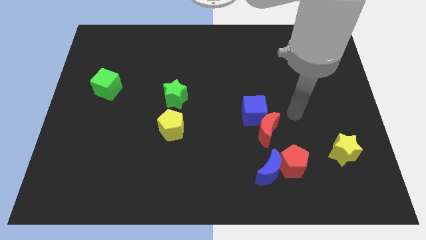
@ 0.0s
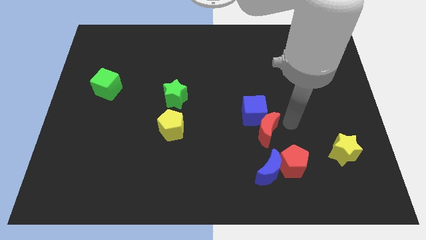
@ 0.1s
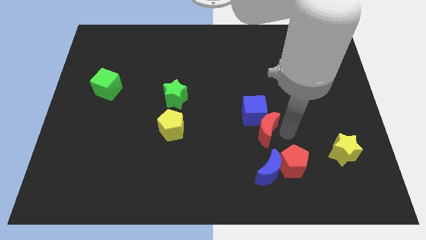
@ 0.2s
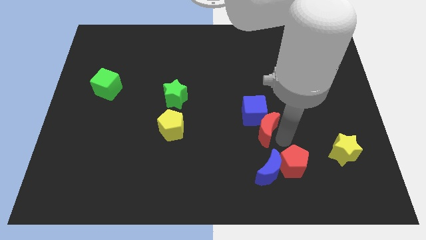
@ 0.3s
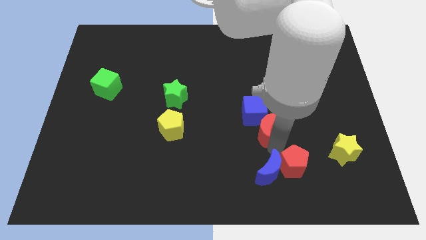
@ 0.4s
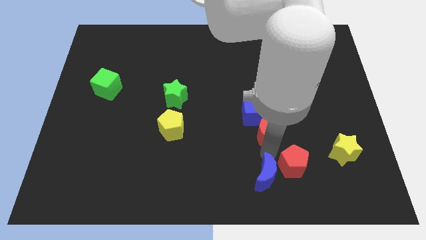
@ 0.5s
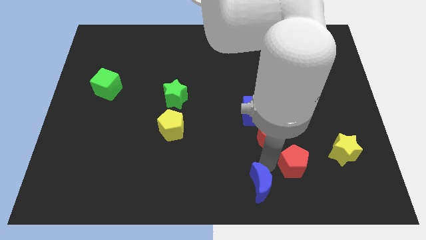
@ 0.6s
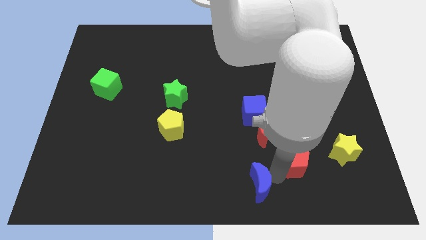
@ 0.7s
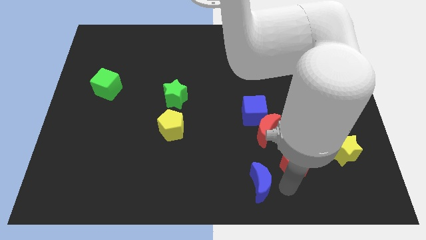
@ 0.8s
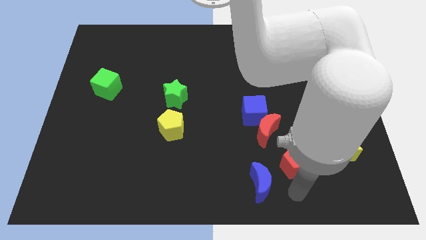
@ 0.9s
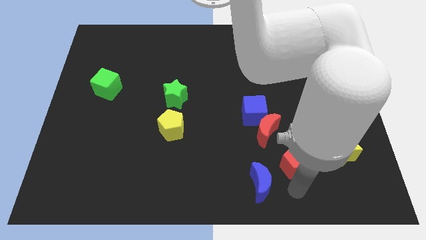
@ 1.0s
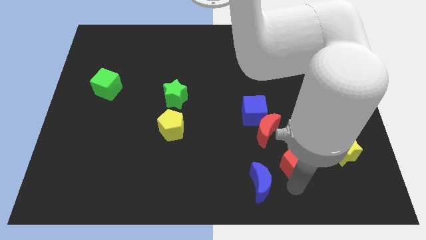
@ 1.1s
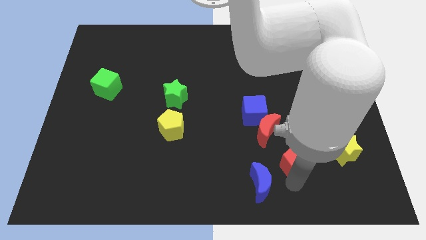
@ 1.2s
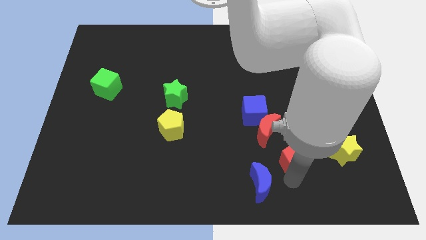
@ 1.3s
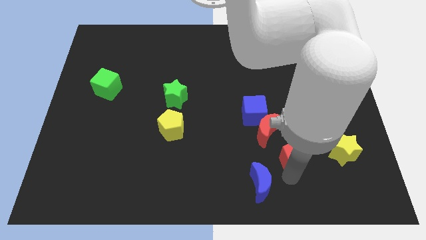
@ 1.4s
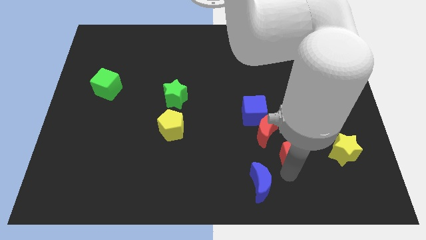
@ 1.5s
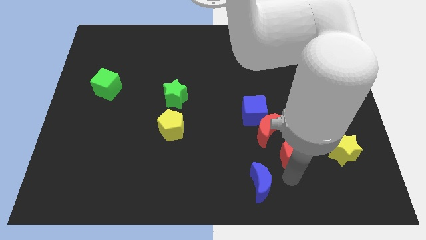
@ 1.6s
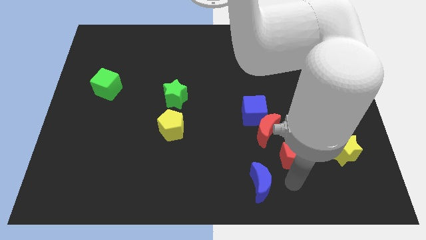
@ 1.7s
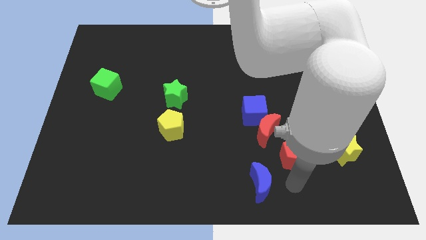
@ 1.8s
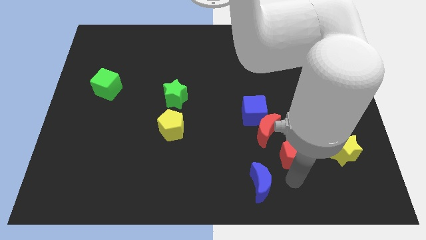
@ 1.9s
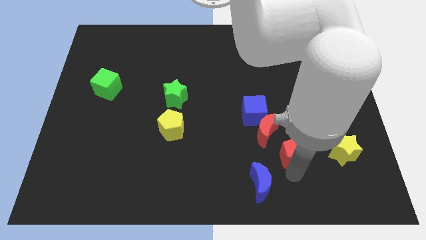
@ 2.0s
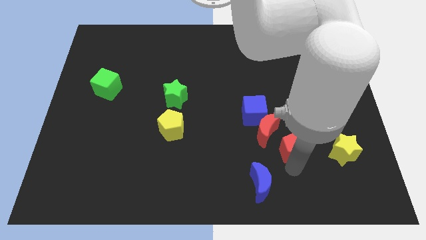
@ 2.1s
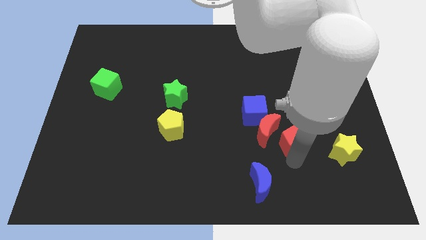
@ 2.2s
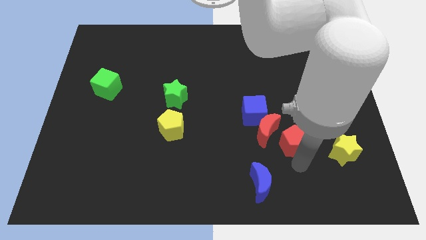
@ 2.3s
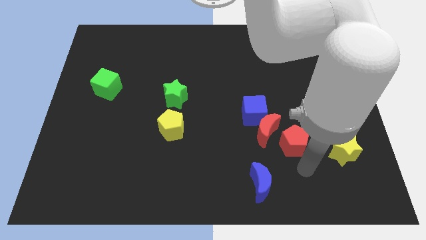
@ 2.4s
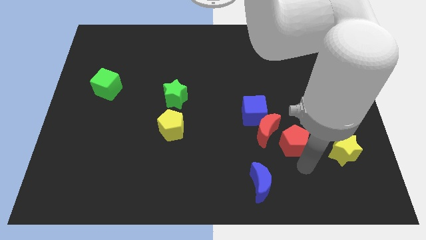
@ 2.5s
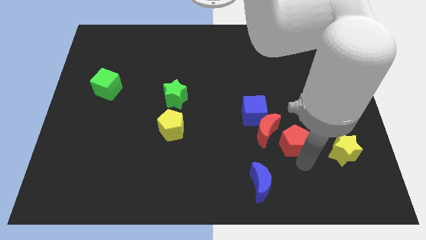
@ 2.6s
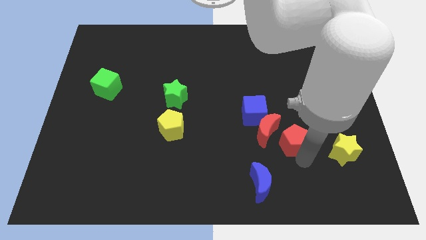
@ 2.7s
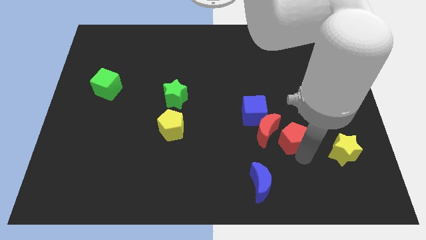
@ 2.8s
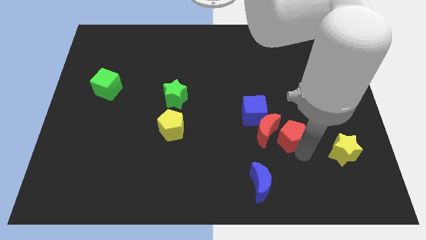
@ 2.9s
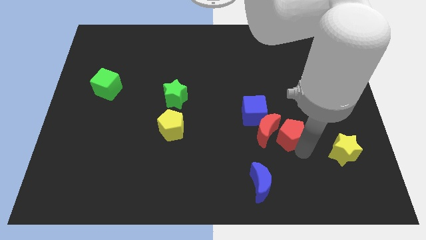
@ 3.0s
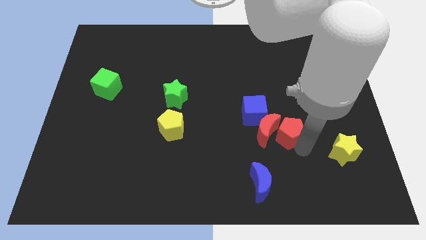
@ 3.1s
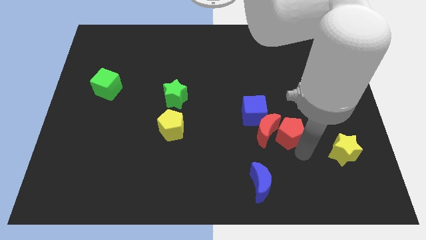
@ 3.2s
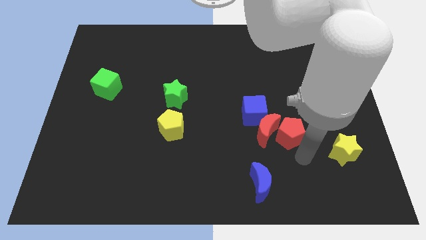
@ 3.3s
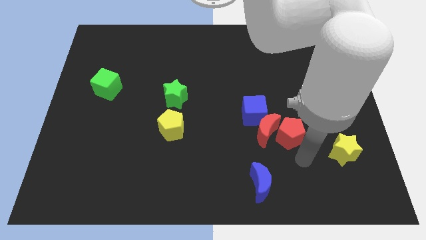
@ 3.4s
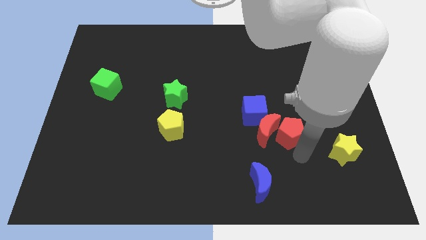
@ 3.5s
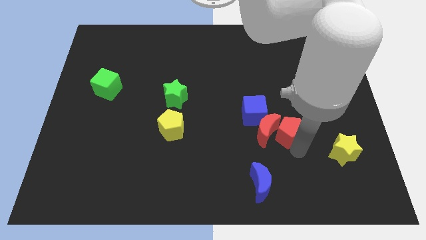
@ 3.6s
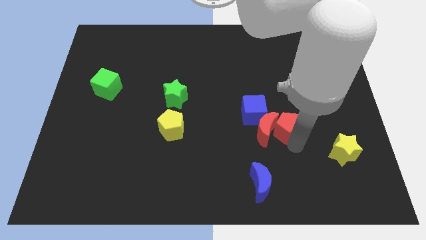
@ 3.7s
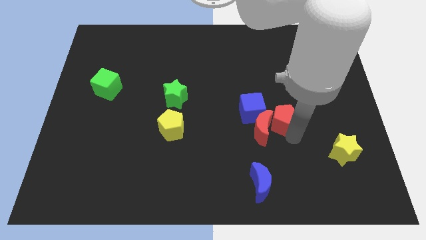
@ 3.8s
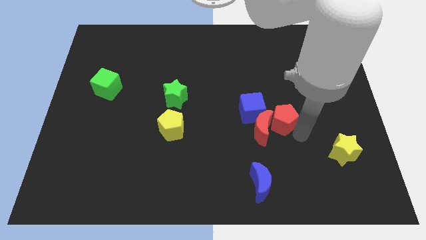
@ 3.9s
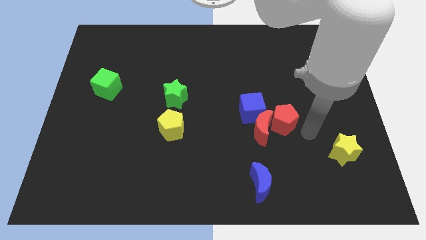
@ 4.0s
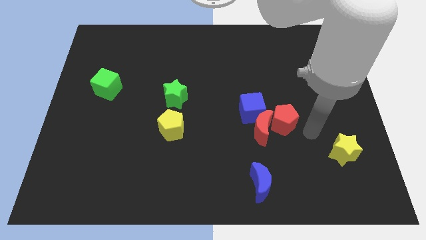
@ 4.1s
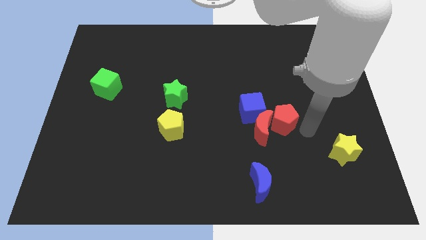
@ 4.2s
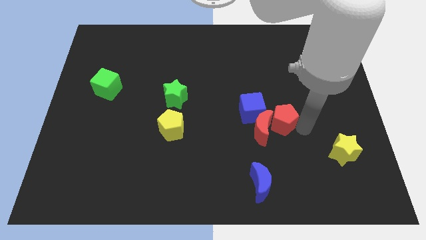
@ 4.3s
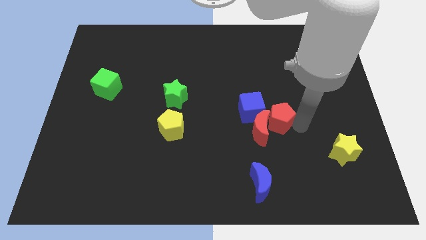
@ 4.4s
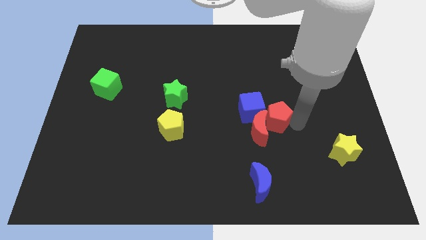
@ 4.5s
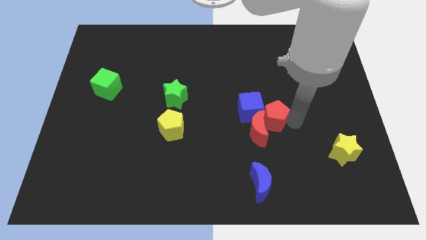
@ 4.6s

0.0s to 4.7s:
move the red pentagon towards the blue cube

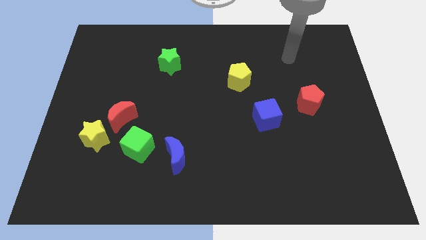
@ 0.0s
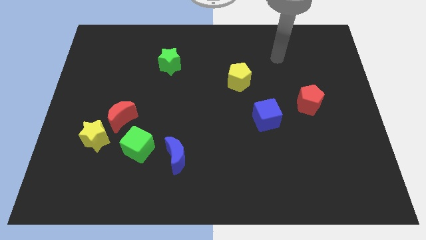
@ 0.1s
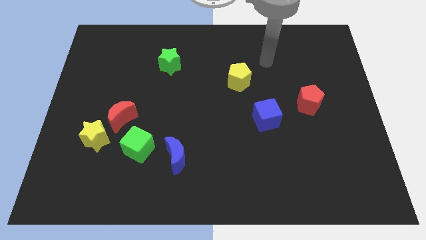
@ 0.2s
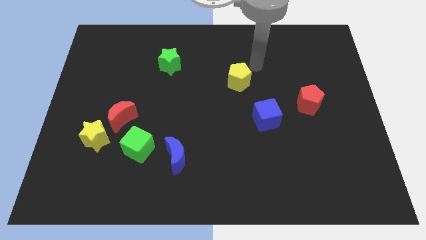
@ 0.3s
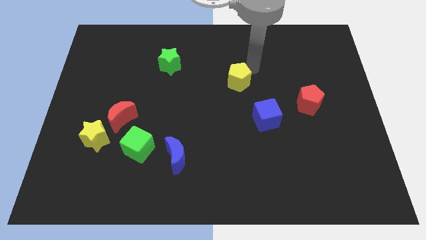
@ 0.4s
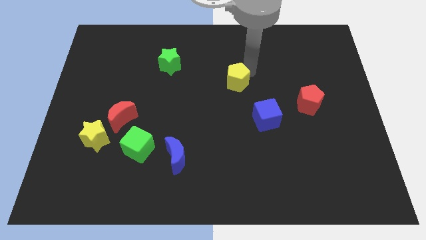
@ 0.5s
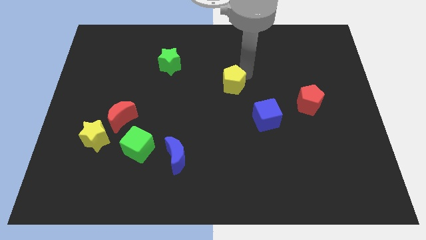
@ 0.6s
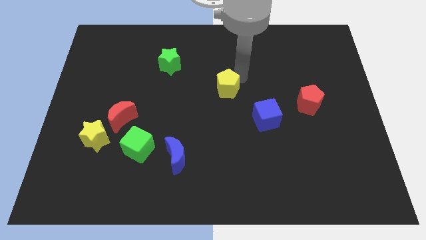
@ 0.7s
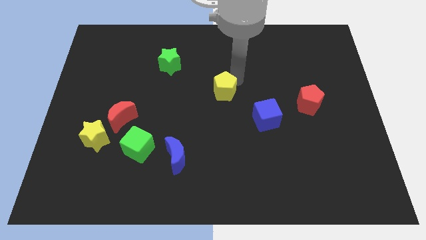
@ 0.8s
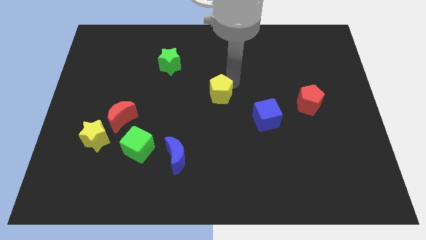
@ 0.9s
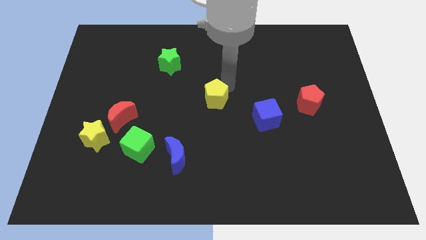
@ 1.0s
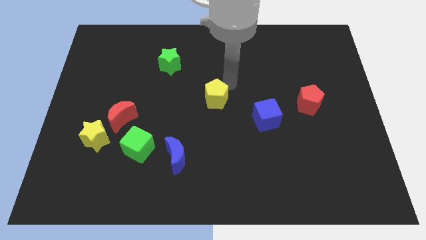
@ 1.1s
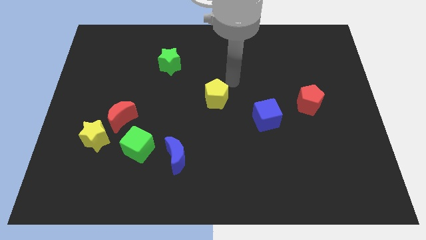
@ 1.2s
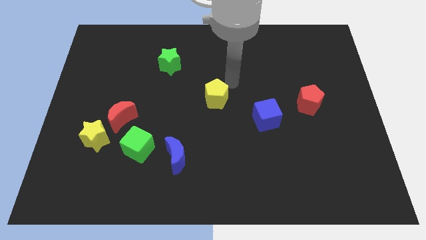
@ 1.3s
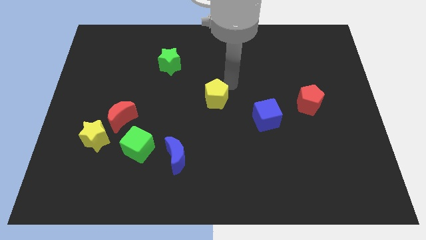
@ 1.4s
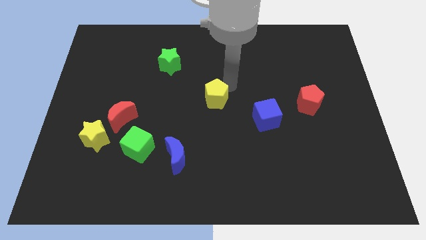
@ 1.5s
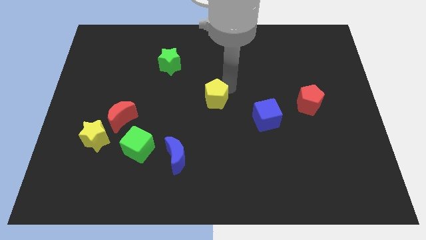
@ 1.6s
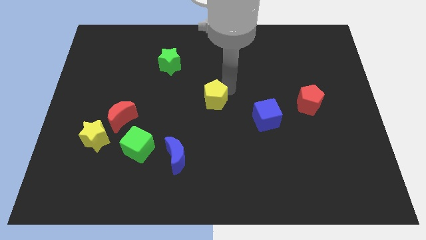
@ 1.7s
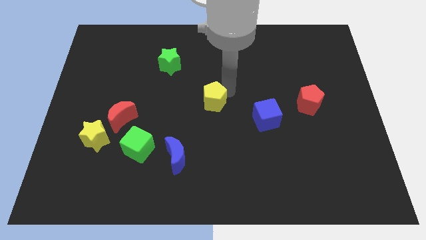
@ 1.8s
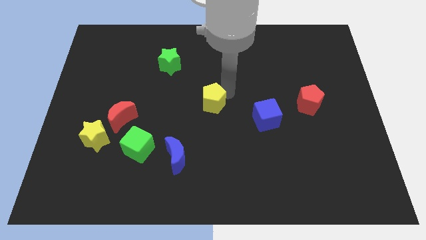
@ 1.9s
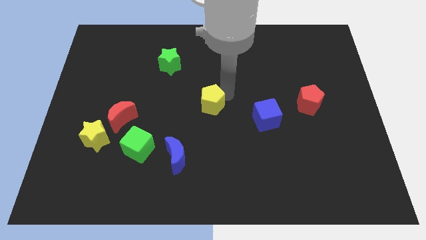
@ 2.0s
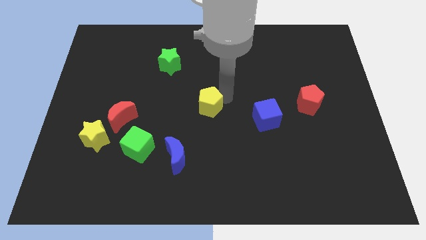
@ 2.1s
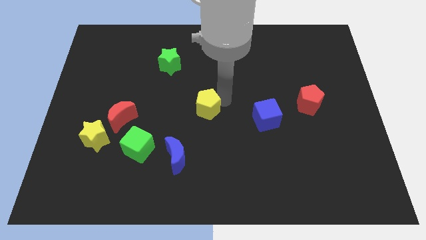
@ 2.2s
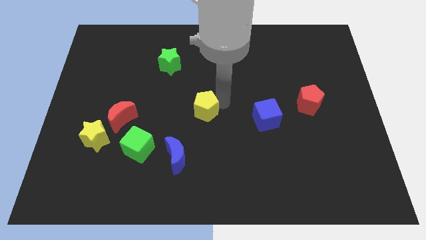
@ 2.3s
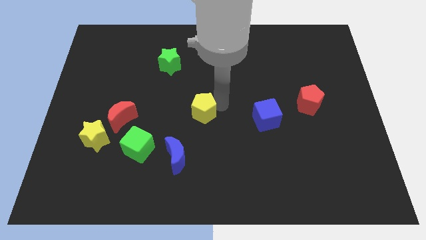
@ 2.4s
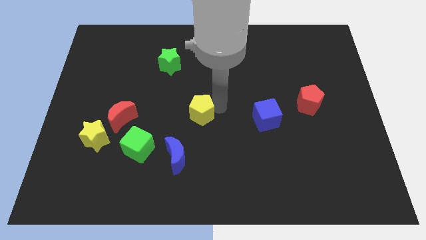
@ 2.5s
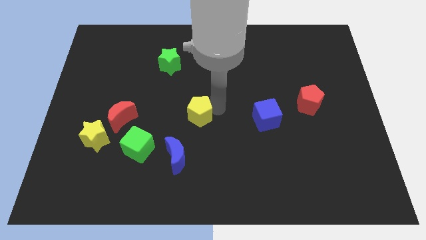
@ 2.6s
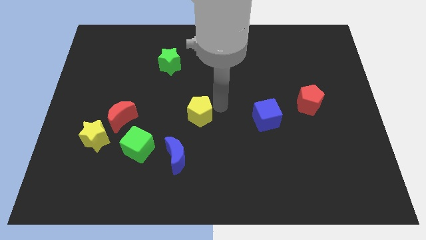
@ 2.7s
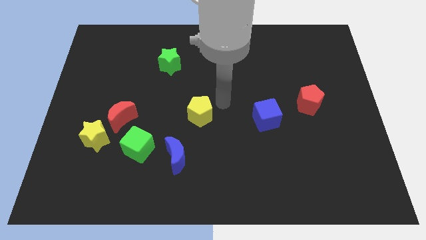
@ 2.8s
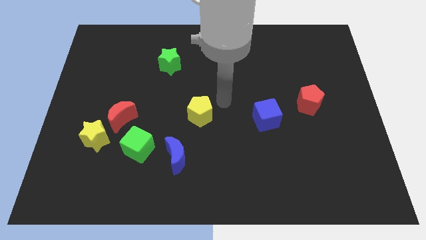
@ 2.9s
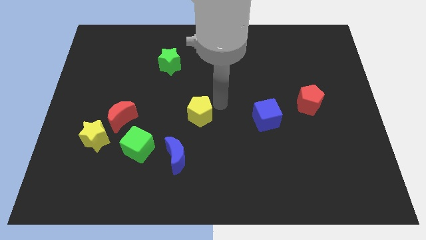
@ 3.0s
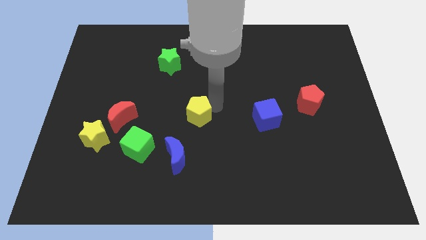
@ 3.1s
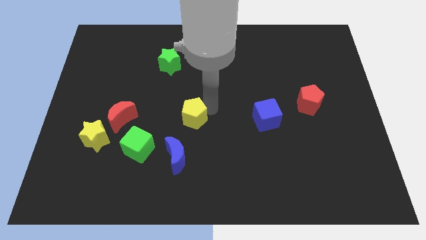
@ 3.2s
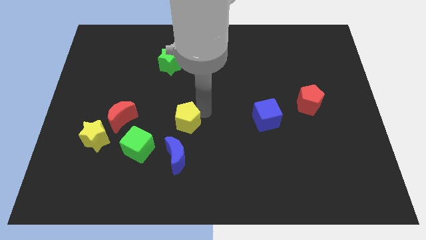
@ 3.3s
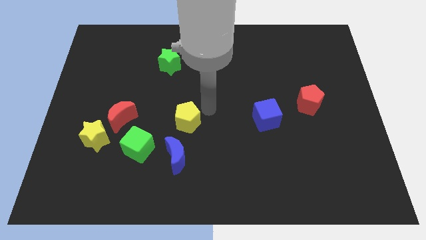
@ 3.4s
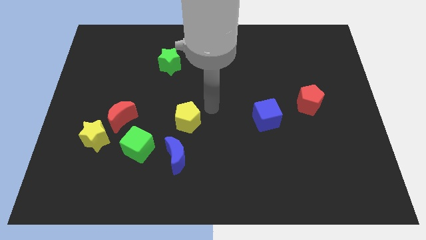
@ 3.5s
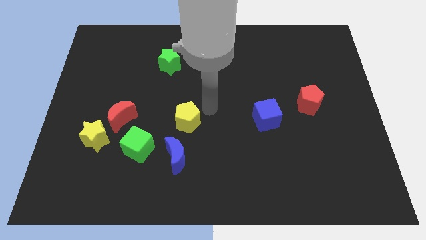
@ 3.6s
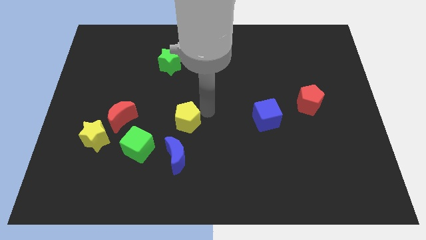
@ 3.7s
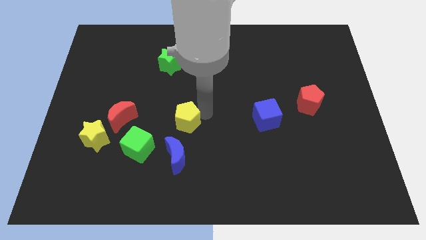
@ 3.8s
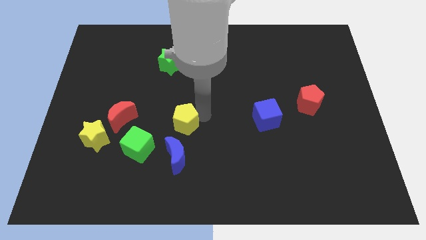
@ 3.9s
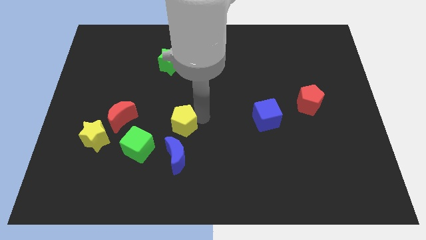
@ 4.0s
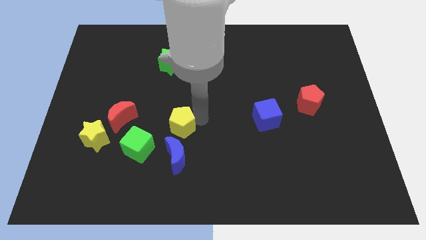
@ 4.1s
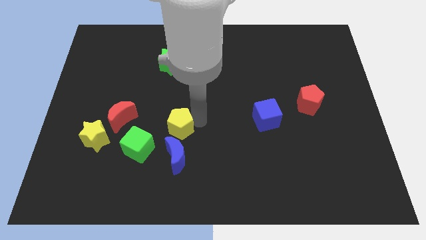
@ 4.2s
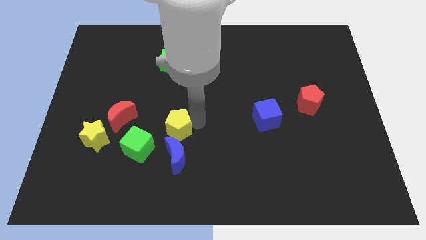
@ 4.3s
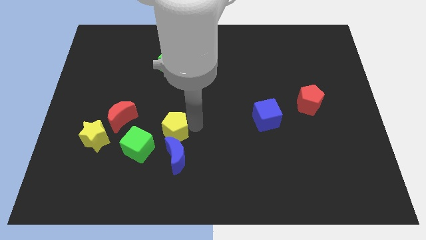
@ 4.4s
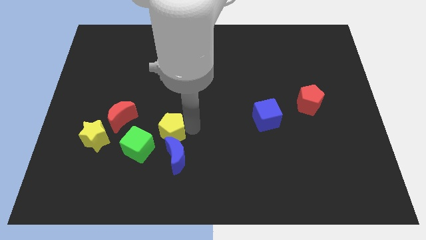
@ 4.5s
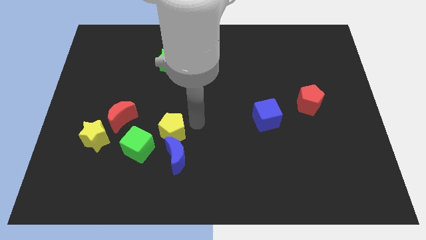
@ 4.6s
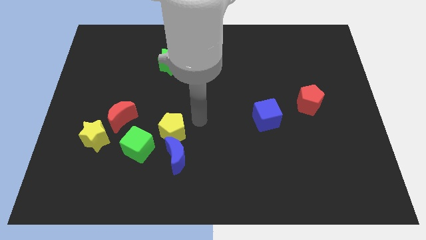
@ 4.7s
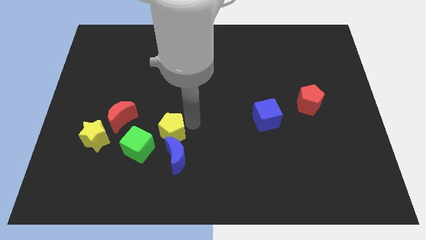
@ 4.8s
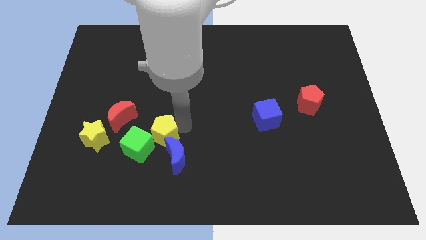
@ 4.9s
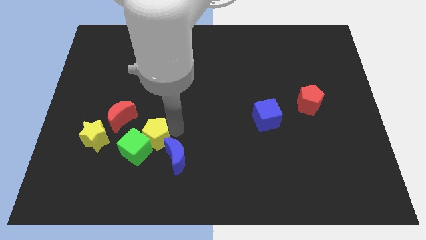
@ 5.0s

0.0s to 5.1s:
put the yellow pentagon next to the green cube
